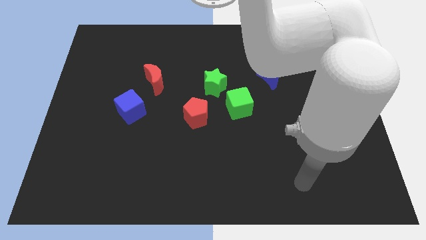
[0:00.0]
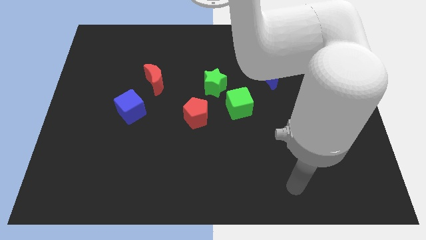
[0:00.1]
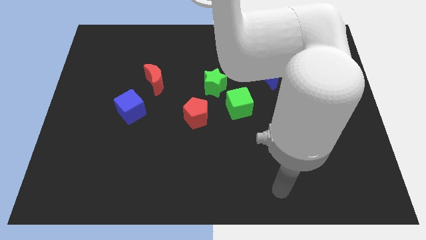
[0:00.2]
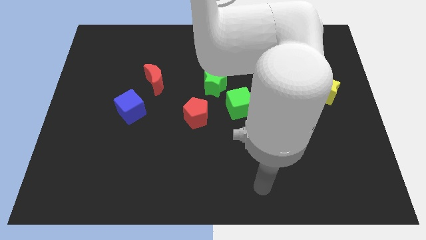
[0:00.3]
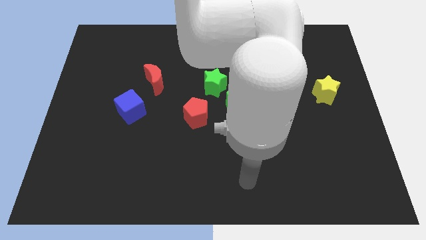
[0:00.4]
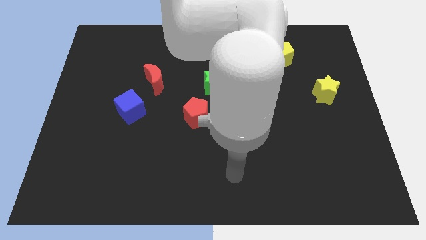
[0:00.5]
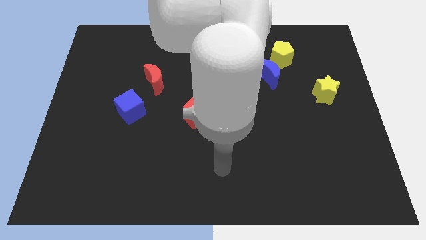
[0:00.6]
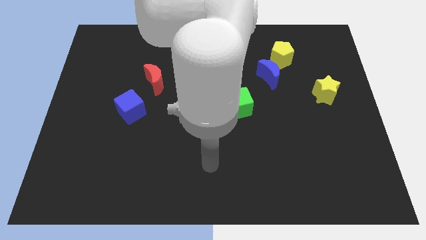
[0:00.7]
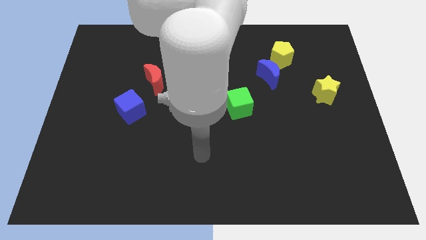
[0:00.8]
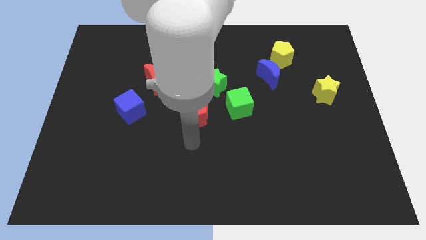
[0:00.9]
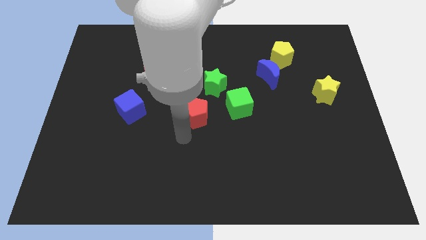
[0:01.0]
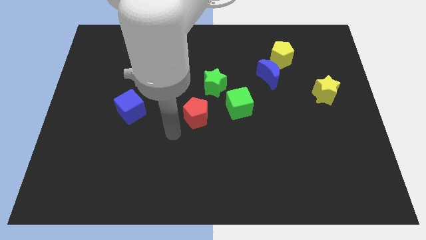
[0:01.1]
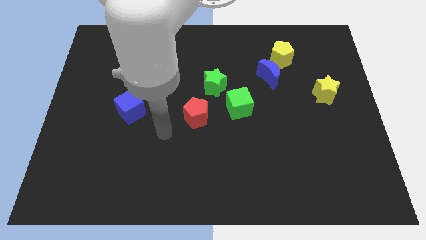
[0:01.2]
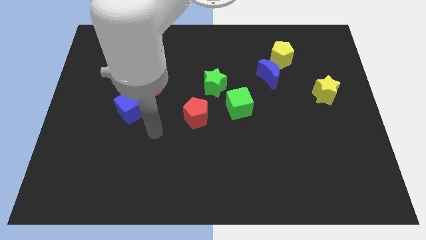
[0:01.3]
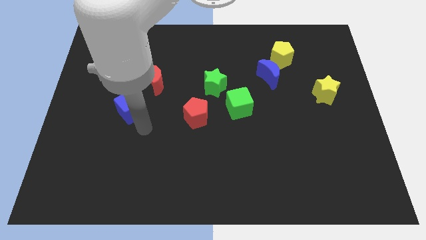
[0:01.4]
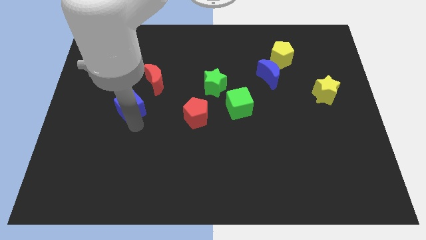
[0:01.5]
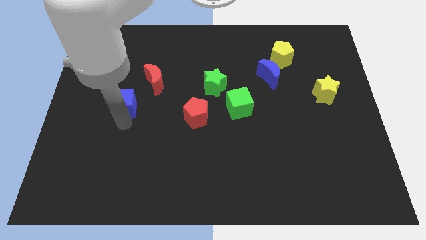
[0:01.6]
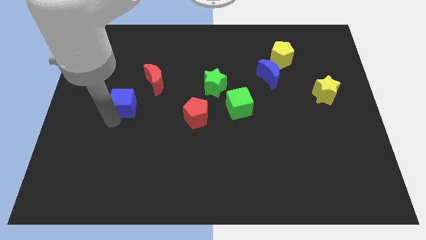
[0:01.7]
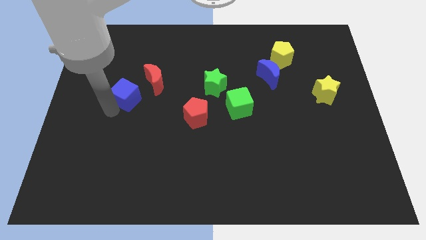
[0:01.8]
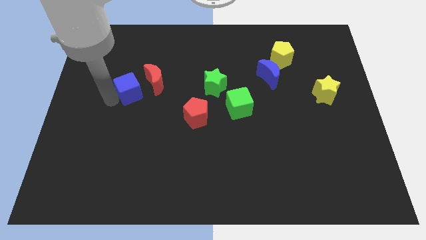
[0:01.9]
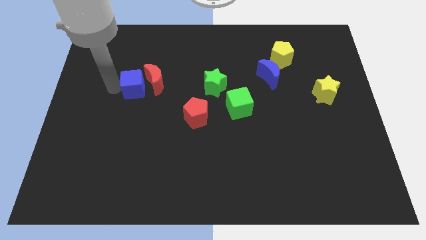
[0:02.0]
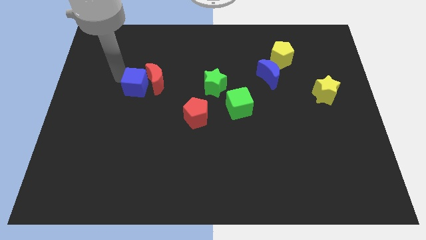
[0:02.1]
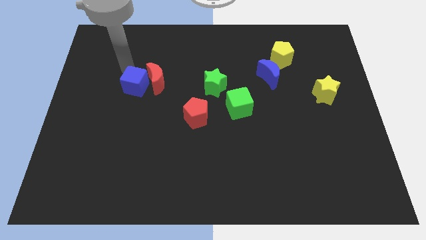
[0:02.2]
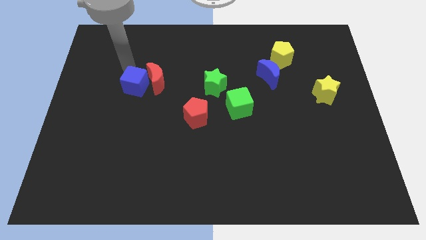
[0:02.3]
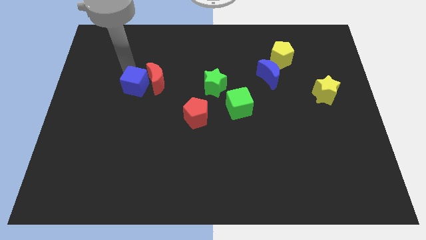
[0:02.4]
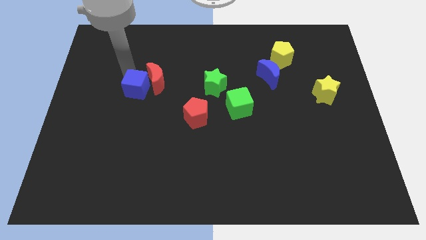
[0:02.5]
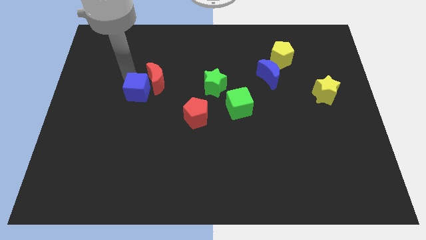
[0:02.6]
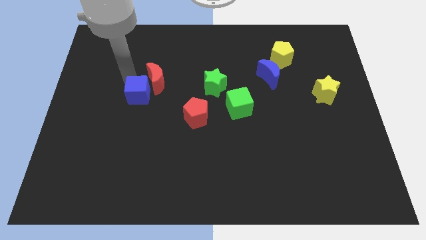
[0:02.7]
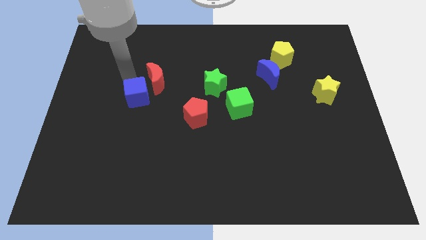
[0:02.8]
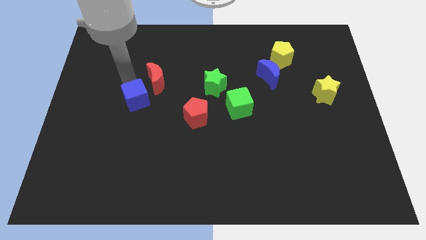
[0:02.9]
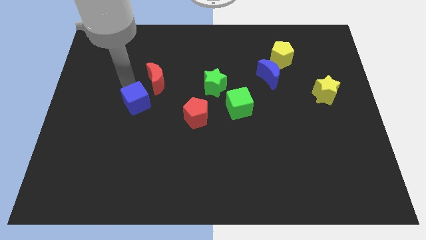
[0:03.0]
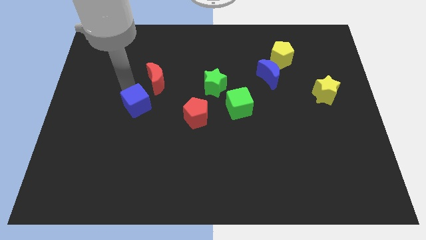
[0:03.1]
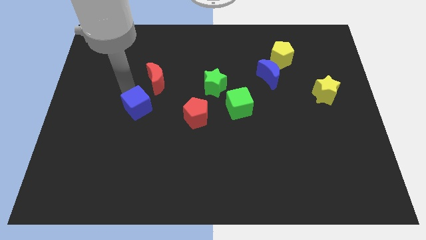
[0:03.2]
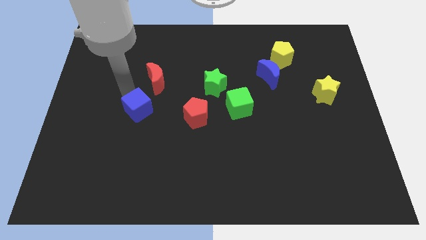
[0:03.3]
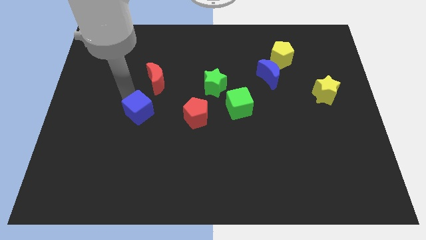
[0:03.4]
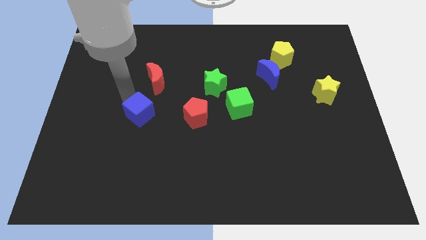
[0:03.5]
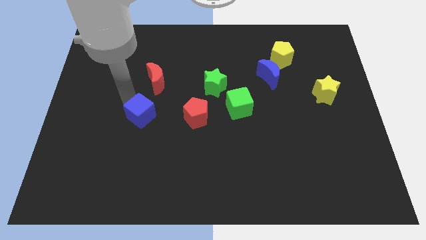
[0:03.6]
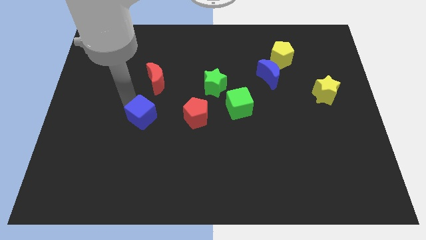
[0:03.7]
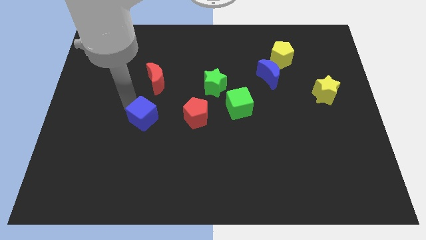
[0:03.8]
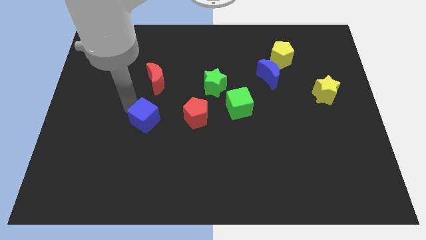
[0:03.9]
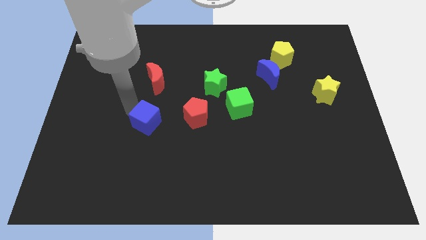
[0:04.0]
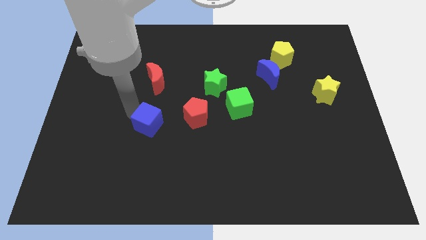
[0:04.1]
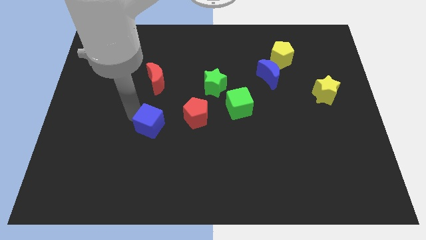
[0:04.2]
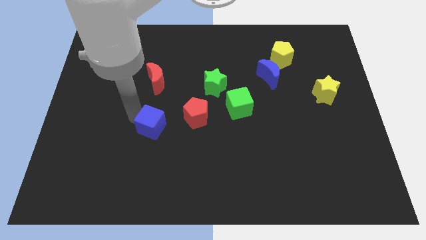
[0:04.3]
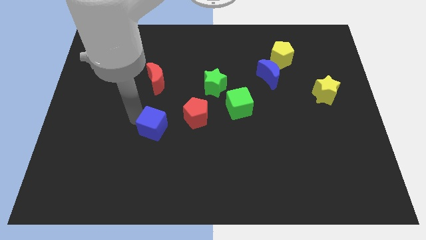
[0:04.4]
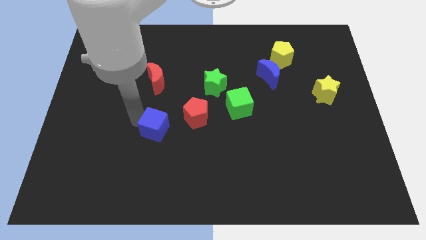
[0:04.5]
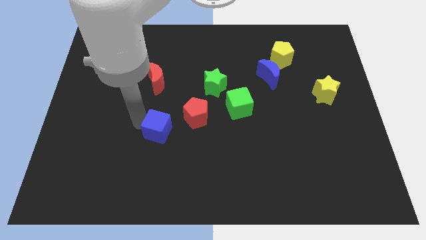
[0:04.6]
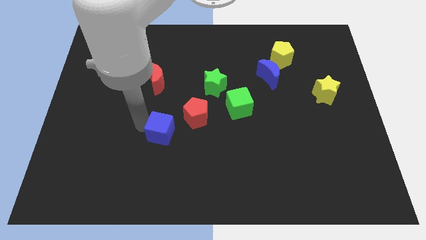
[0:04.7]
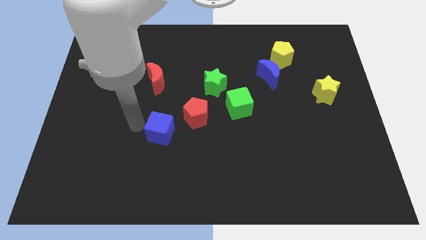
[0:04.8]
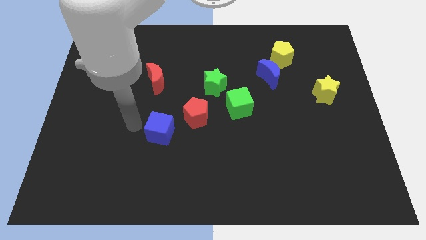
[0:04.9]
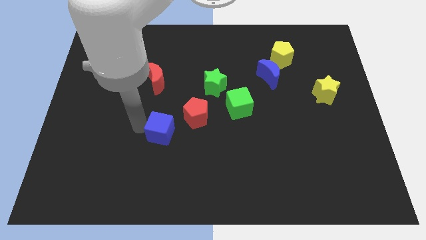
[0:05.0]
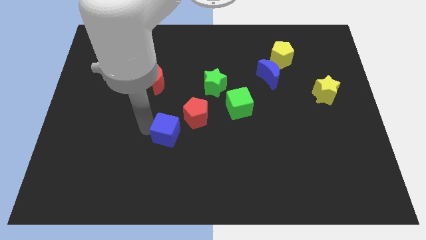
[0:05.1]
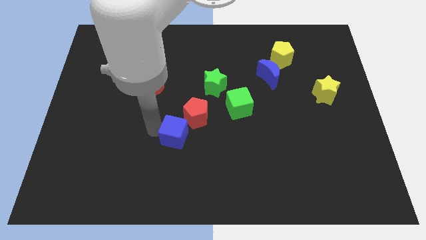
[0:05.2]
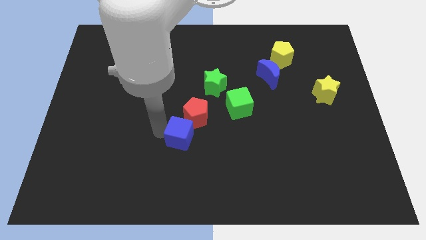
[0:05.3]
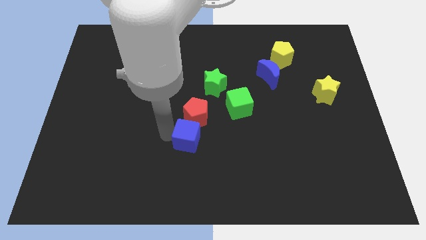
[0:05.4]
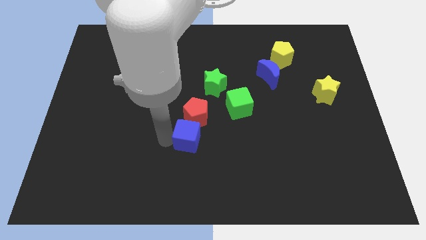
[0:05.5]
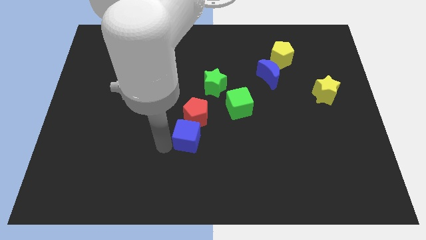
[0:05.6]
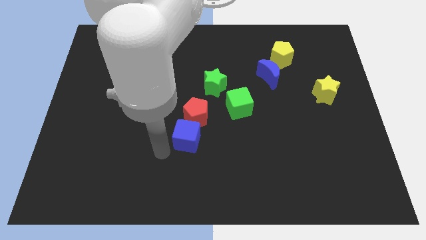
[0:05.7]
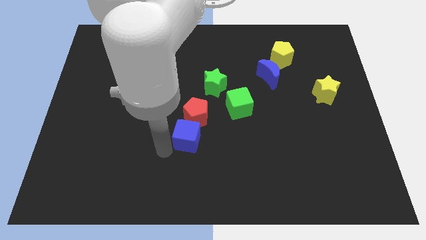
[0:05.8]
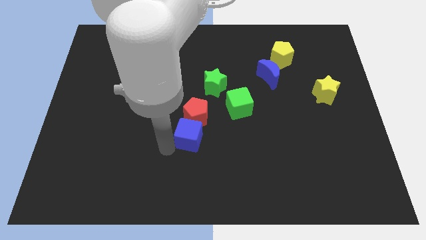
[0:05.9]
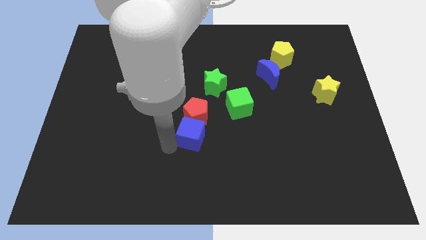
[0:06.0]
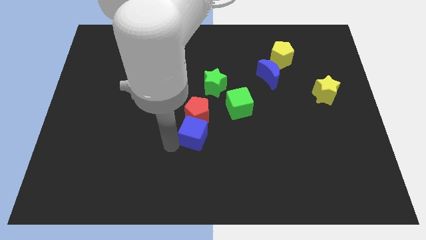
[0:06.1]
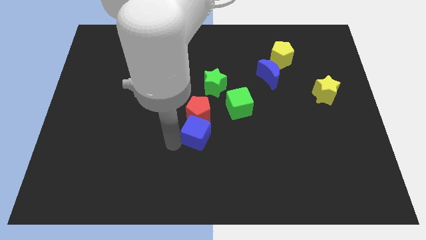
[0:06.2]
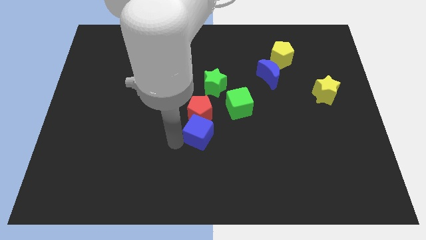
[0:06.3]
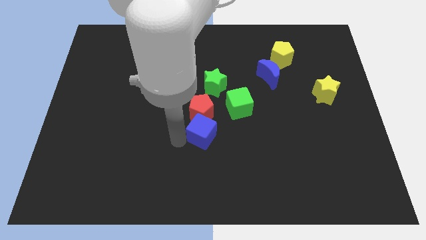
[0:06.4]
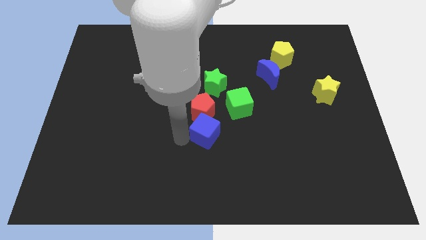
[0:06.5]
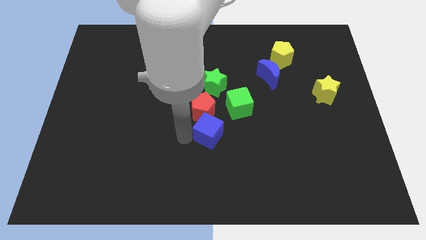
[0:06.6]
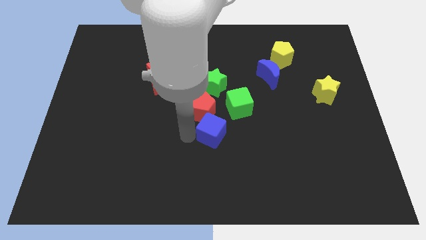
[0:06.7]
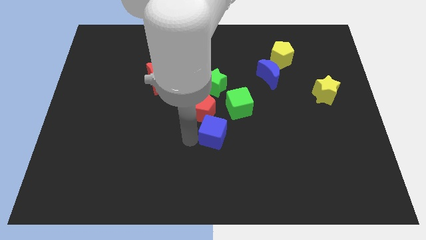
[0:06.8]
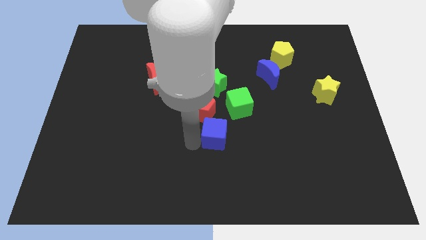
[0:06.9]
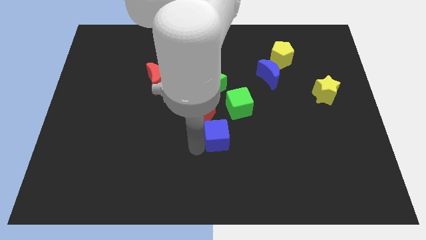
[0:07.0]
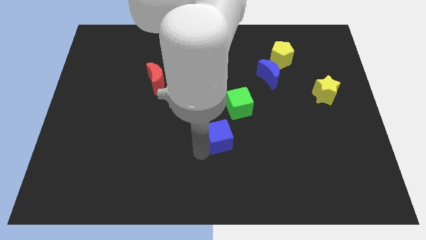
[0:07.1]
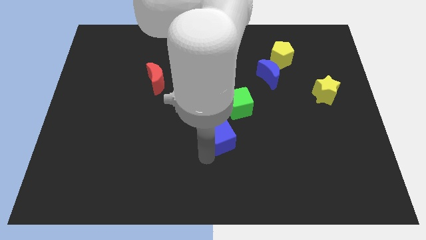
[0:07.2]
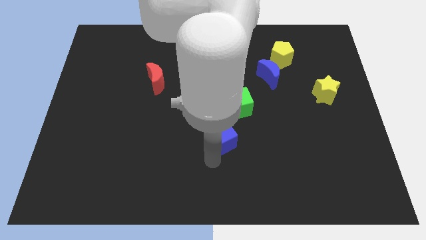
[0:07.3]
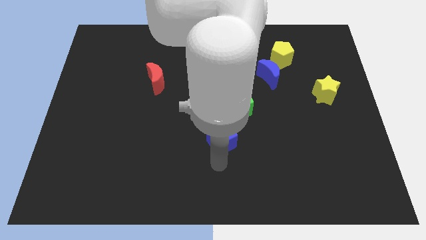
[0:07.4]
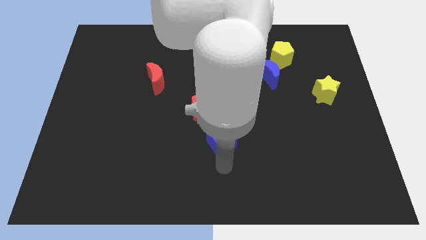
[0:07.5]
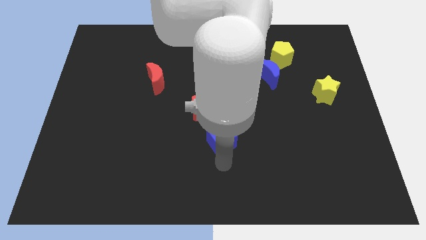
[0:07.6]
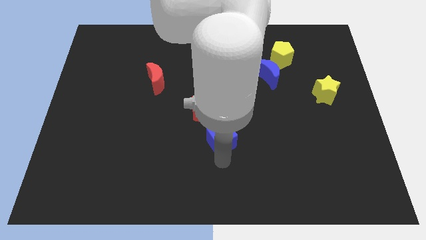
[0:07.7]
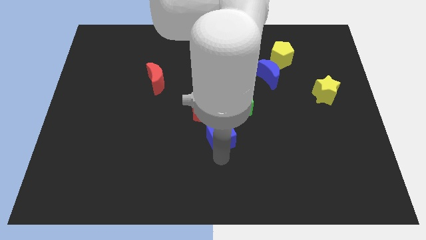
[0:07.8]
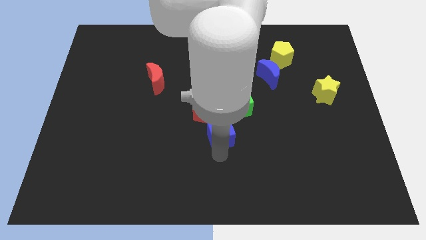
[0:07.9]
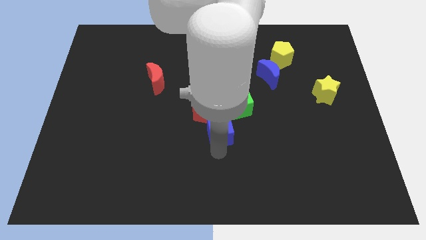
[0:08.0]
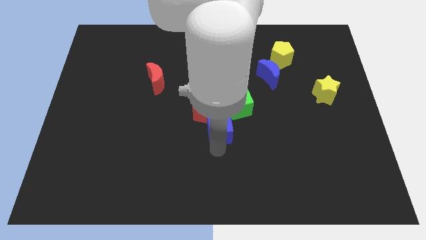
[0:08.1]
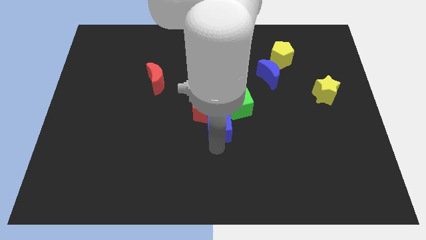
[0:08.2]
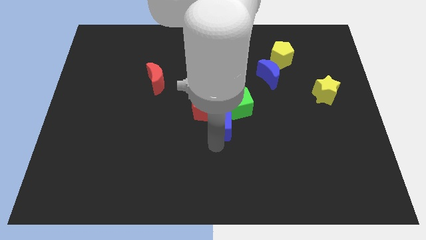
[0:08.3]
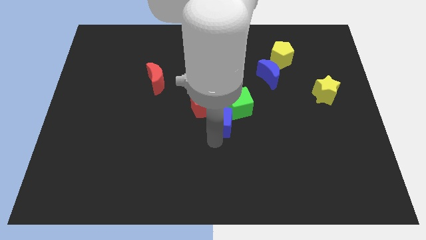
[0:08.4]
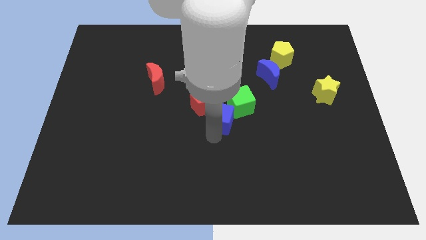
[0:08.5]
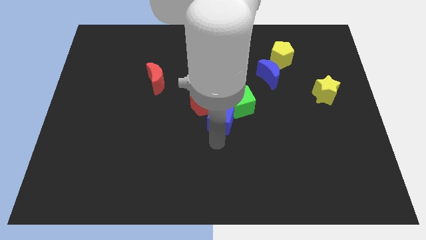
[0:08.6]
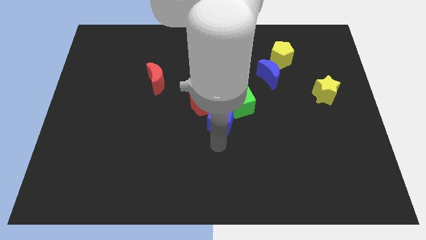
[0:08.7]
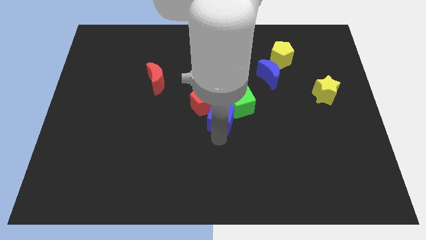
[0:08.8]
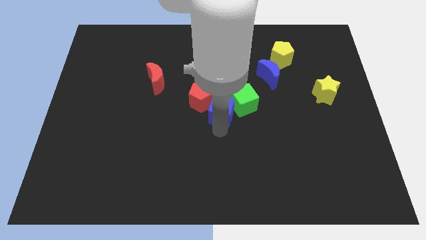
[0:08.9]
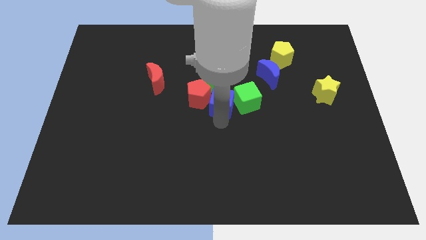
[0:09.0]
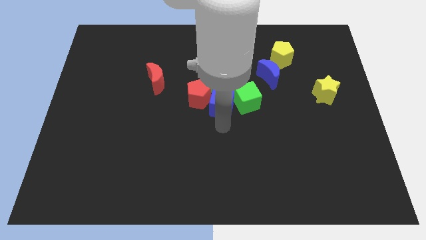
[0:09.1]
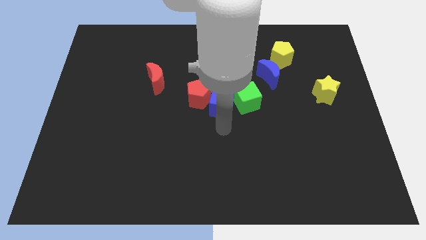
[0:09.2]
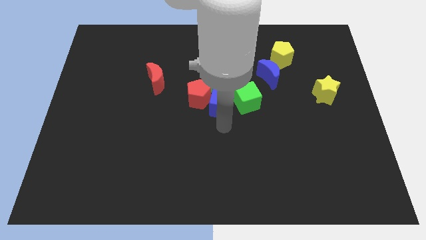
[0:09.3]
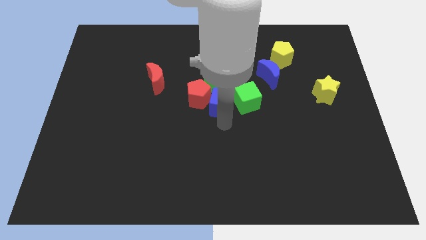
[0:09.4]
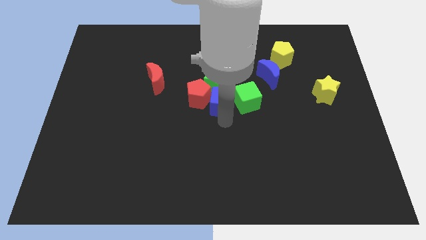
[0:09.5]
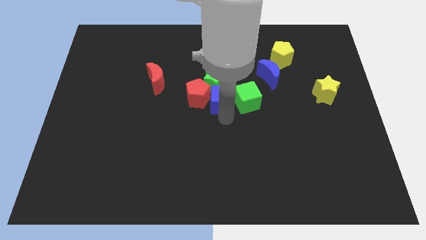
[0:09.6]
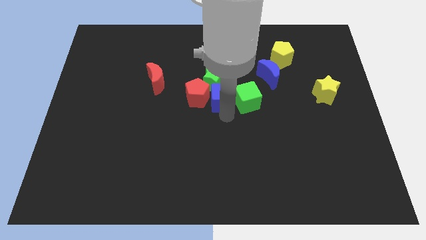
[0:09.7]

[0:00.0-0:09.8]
move the blue cube to the top right of the red pentagon
